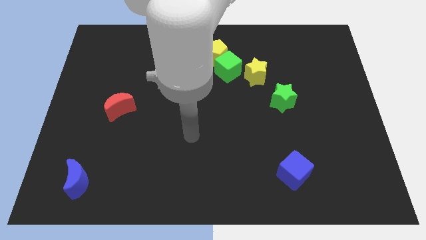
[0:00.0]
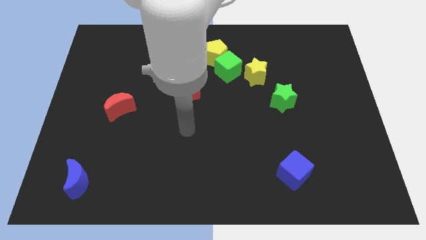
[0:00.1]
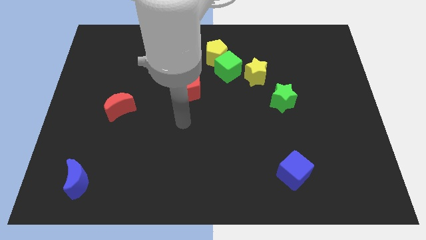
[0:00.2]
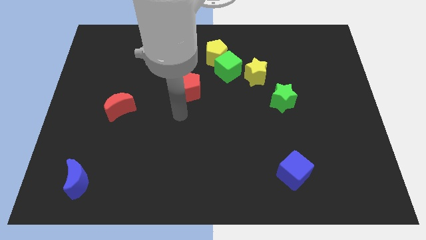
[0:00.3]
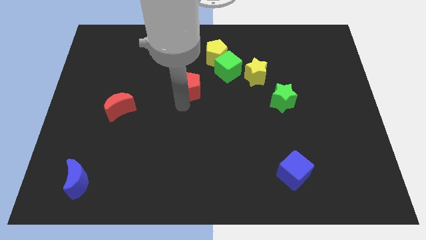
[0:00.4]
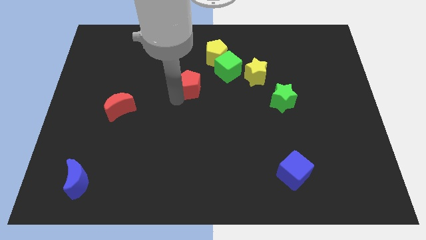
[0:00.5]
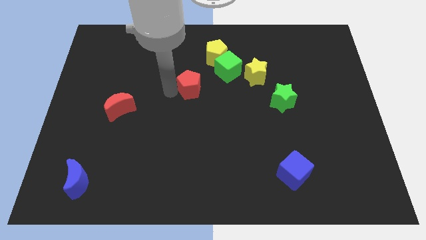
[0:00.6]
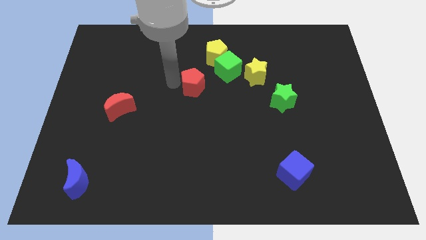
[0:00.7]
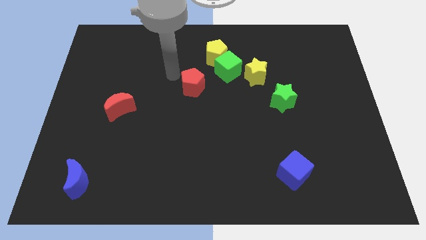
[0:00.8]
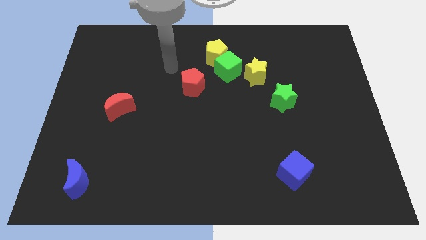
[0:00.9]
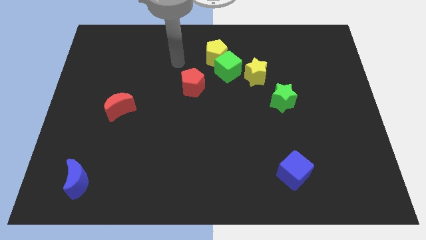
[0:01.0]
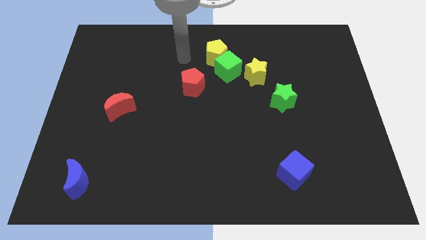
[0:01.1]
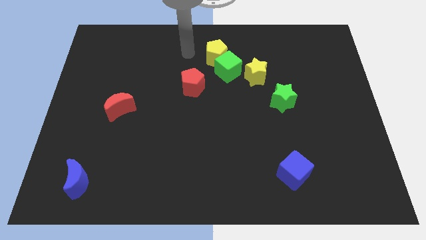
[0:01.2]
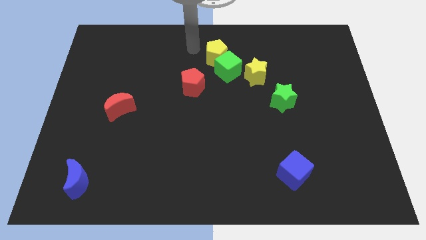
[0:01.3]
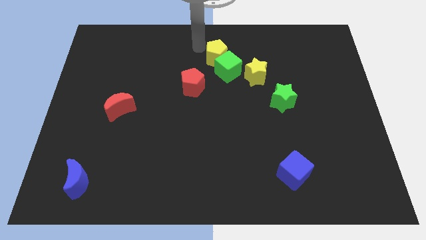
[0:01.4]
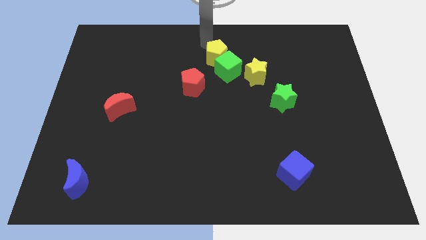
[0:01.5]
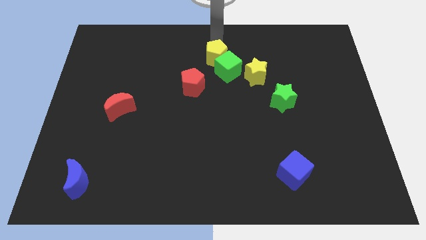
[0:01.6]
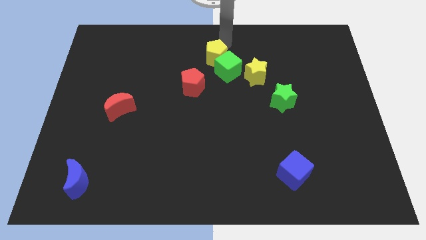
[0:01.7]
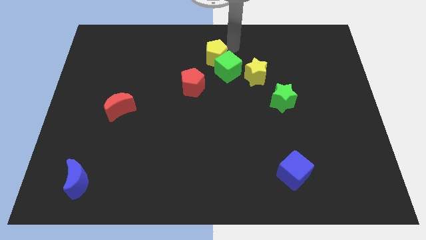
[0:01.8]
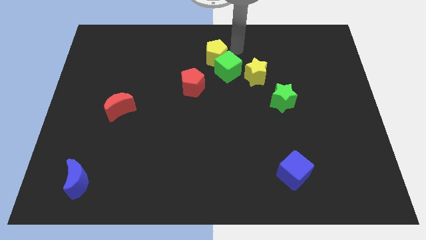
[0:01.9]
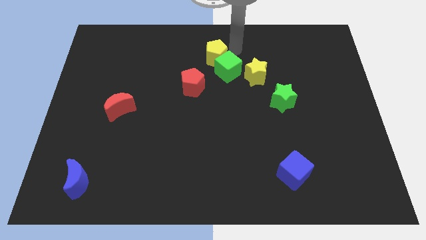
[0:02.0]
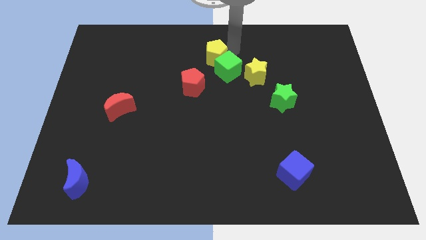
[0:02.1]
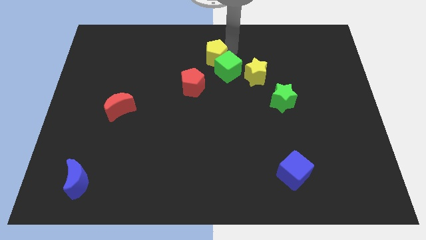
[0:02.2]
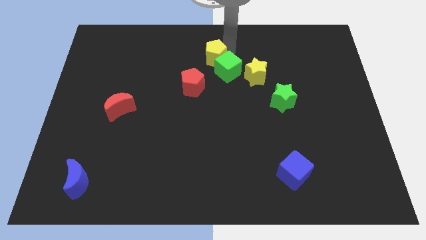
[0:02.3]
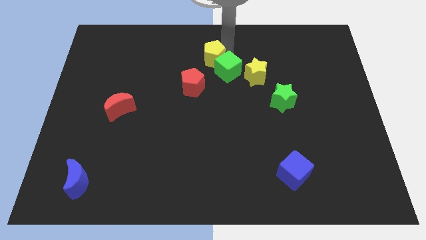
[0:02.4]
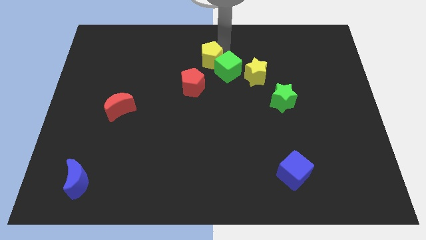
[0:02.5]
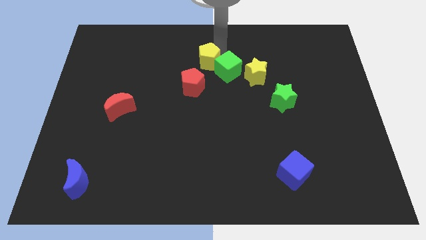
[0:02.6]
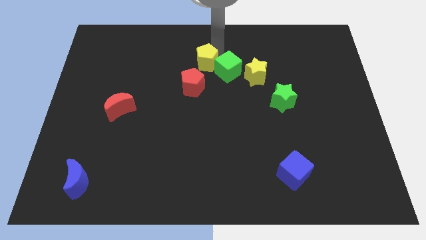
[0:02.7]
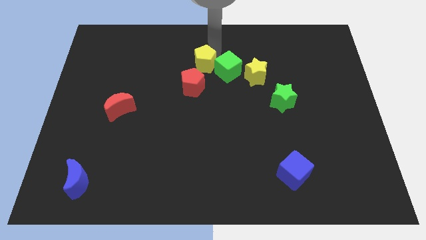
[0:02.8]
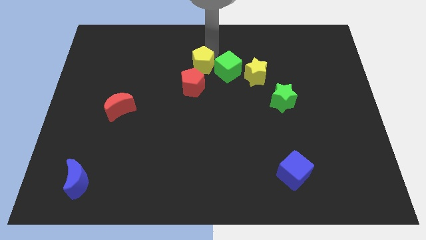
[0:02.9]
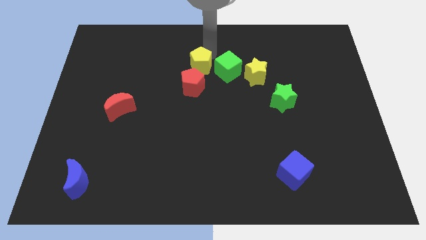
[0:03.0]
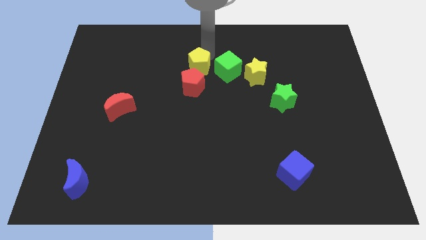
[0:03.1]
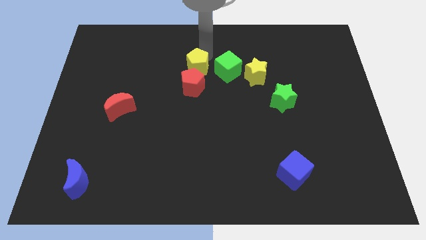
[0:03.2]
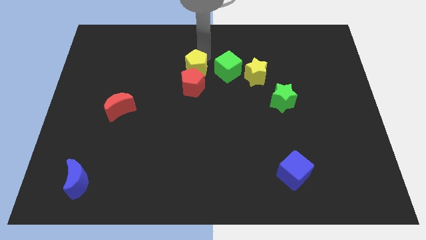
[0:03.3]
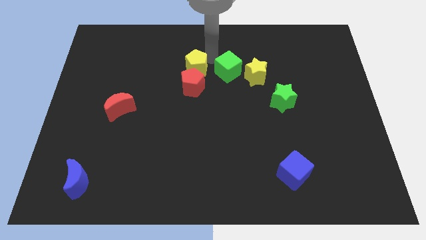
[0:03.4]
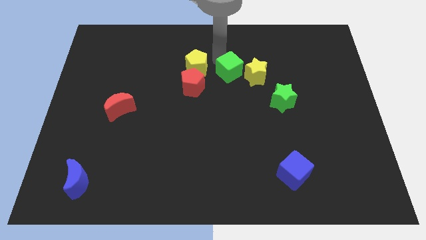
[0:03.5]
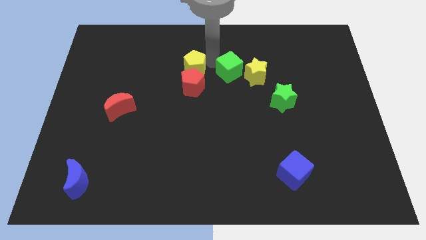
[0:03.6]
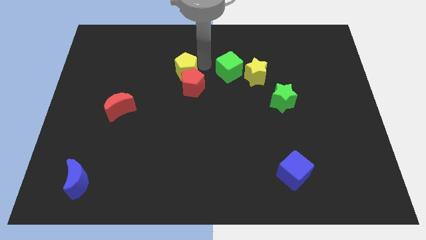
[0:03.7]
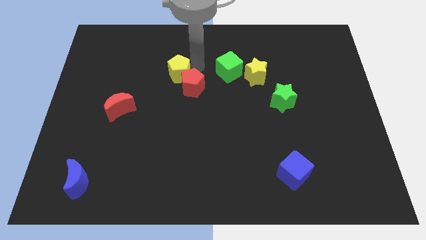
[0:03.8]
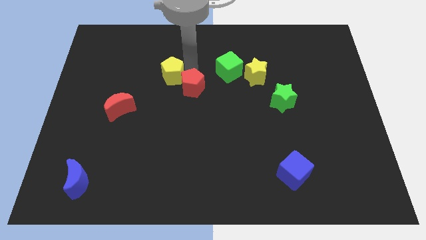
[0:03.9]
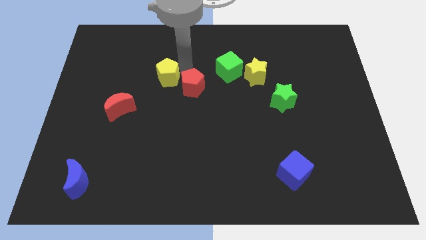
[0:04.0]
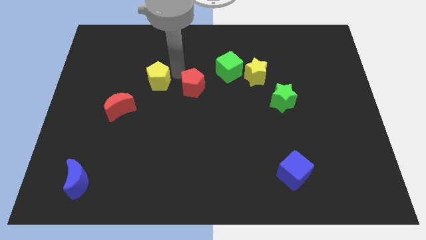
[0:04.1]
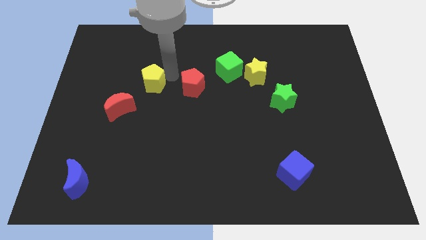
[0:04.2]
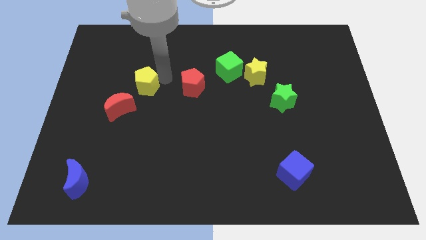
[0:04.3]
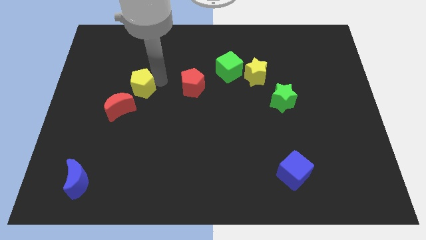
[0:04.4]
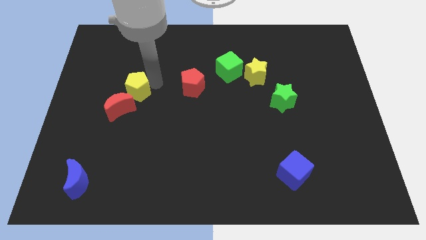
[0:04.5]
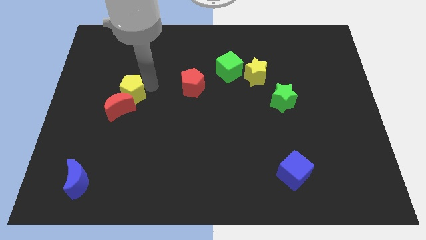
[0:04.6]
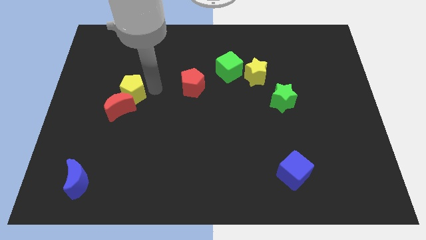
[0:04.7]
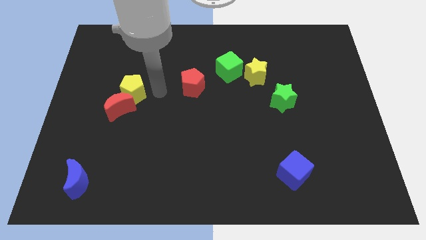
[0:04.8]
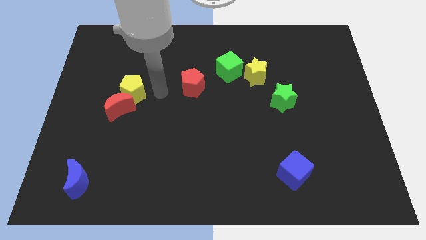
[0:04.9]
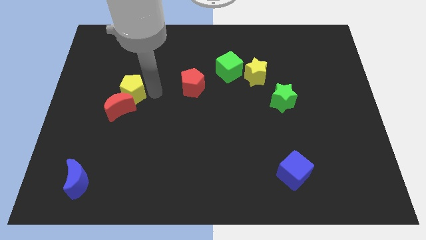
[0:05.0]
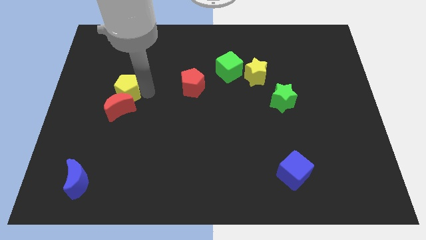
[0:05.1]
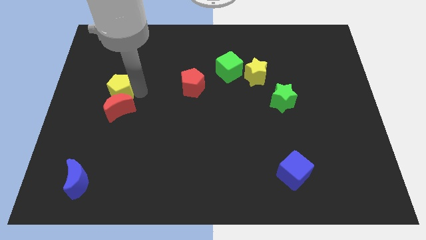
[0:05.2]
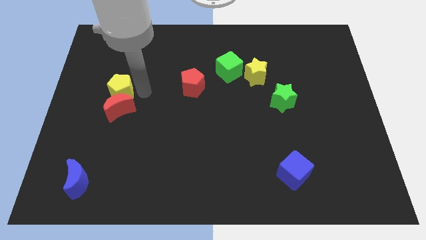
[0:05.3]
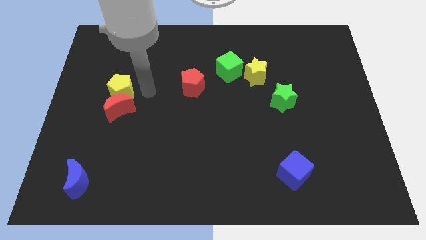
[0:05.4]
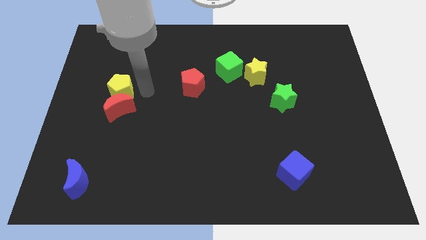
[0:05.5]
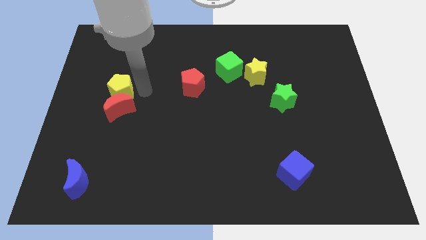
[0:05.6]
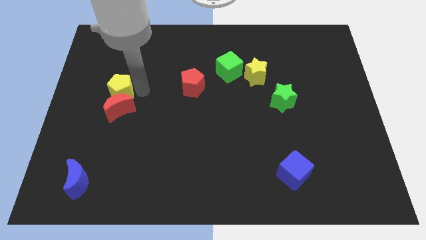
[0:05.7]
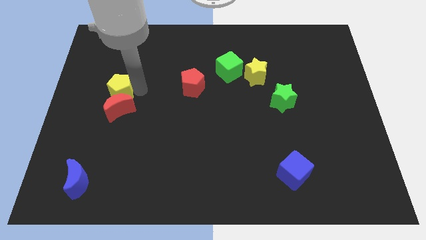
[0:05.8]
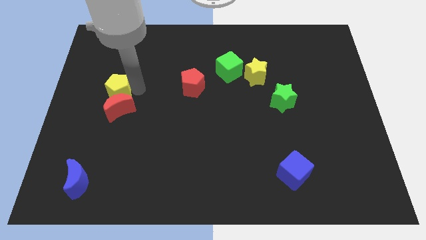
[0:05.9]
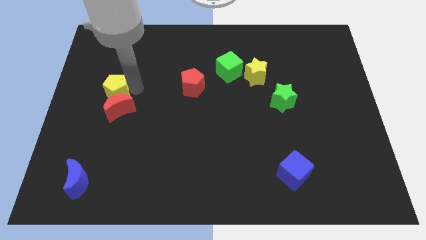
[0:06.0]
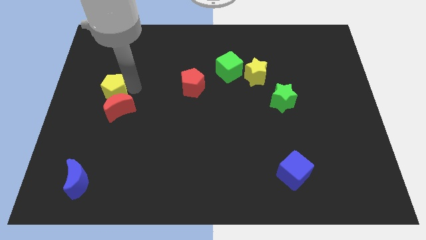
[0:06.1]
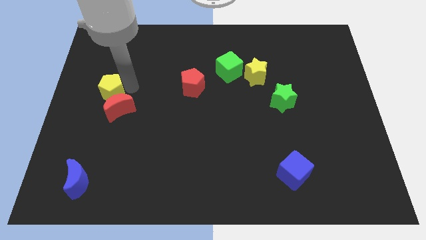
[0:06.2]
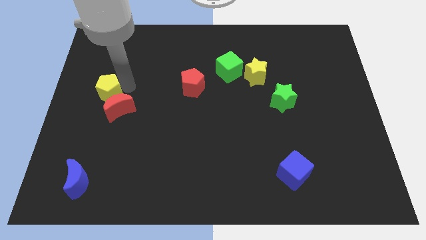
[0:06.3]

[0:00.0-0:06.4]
push the yellow pentagon to the left side
